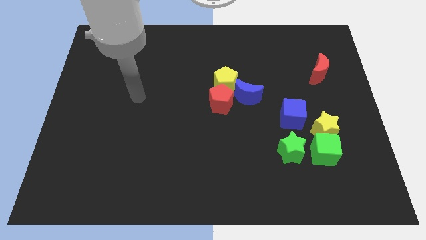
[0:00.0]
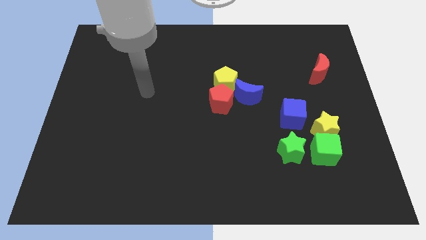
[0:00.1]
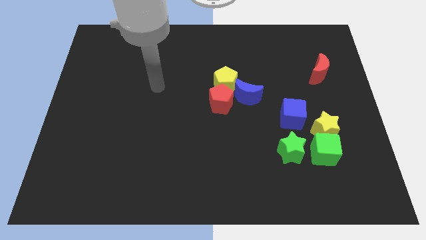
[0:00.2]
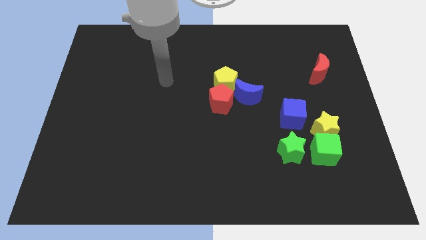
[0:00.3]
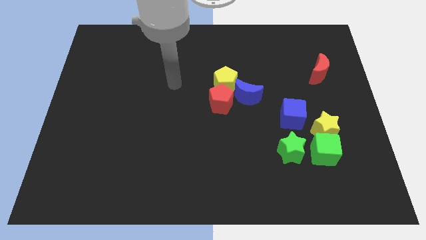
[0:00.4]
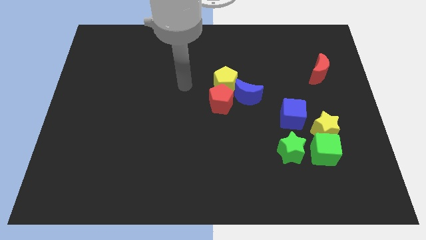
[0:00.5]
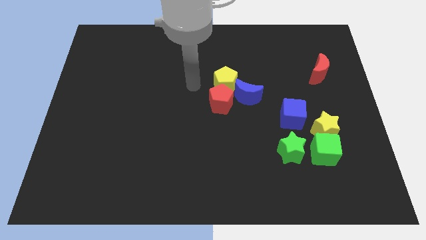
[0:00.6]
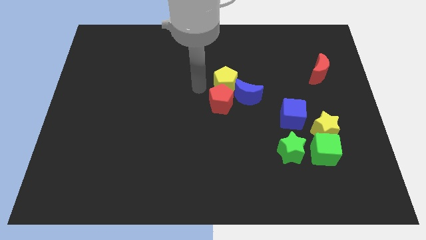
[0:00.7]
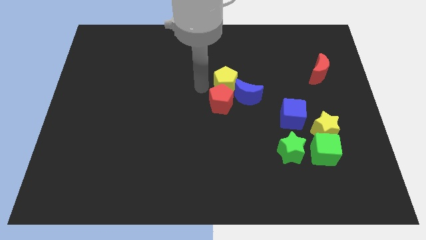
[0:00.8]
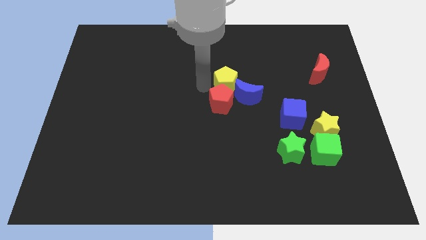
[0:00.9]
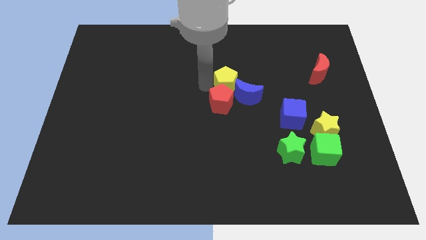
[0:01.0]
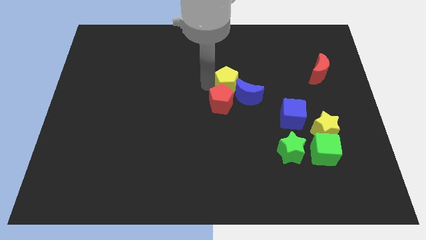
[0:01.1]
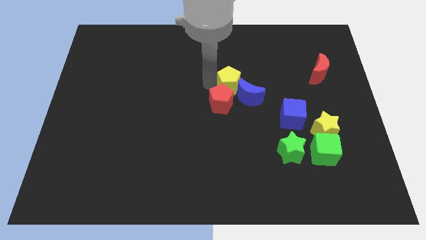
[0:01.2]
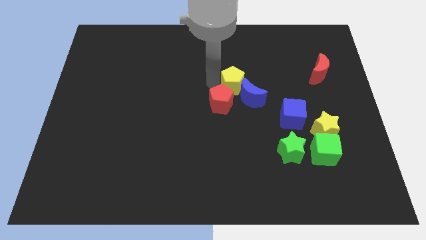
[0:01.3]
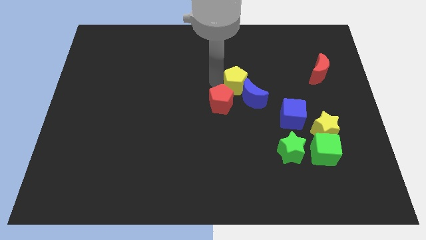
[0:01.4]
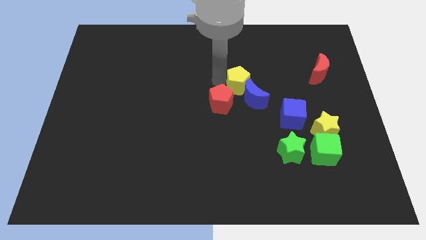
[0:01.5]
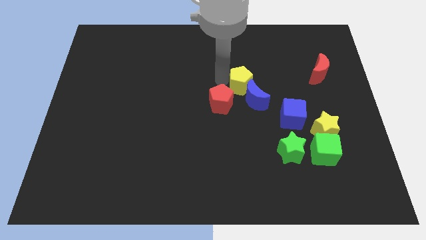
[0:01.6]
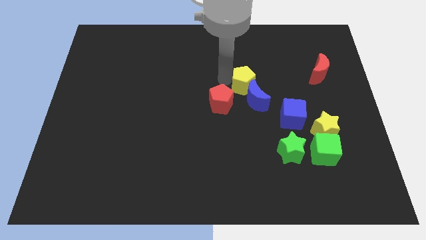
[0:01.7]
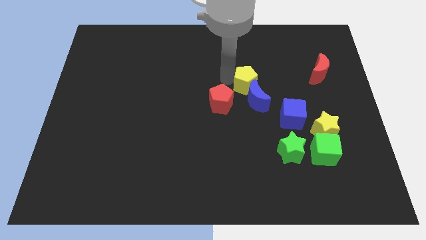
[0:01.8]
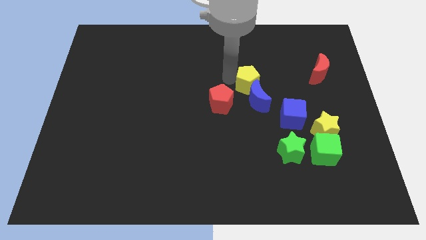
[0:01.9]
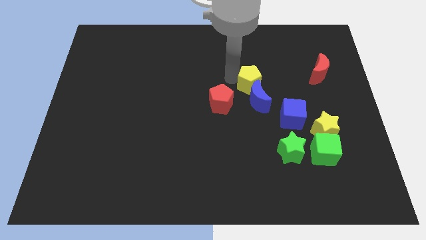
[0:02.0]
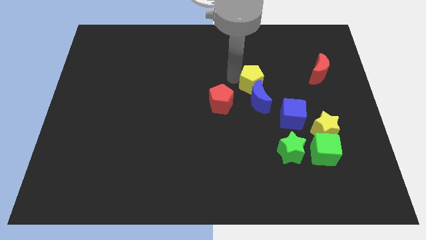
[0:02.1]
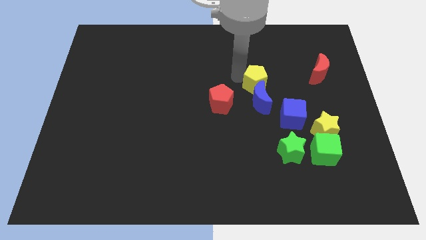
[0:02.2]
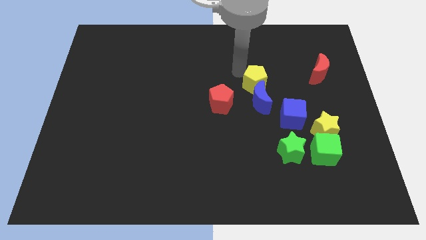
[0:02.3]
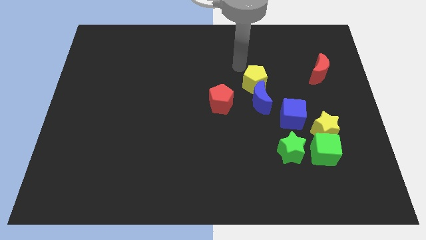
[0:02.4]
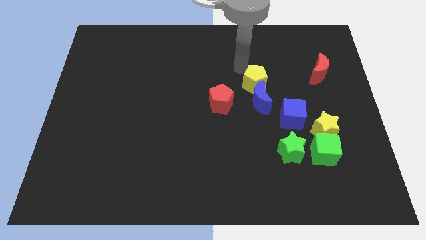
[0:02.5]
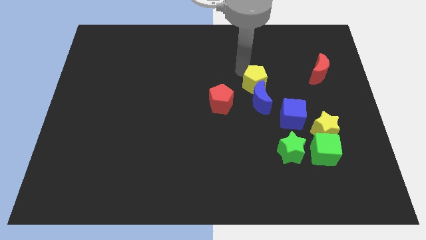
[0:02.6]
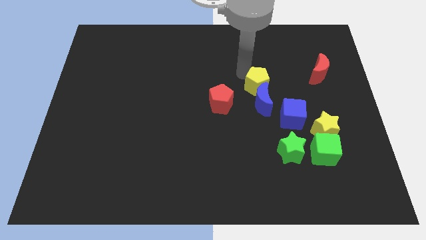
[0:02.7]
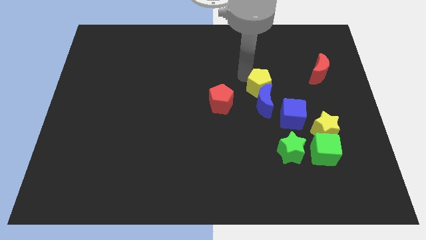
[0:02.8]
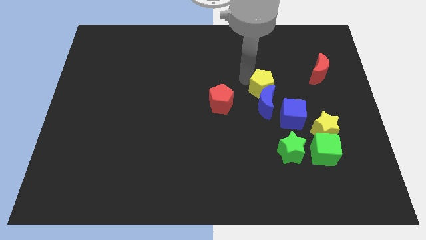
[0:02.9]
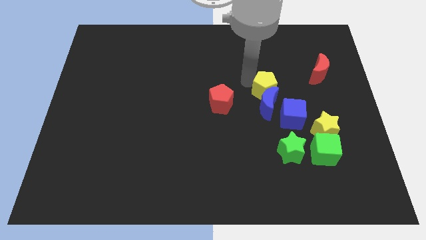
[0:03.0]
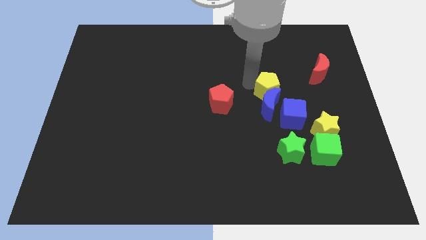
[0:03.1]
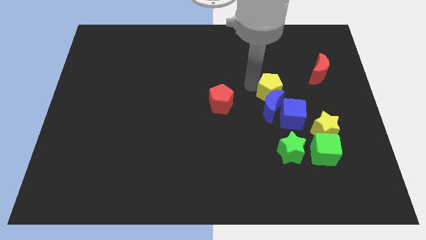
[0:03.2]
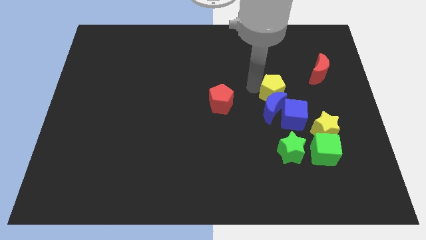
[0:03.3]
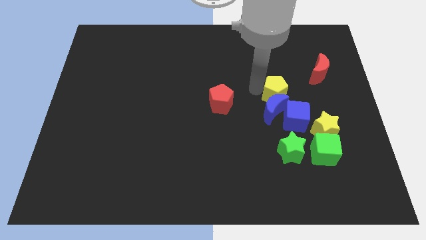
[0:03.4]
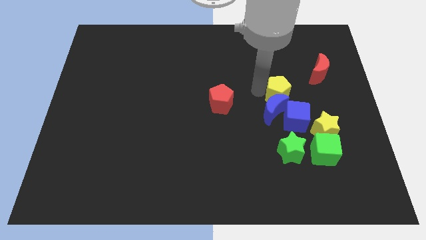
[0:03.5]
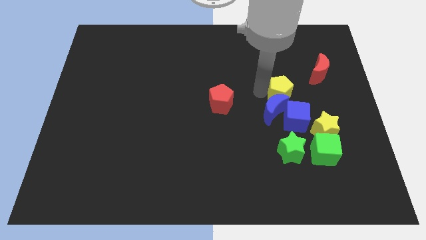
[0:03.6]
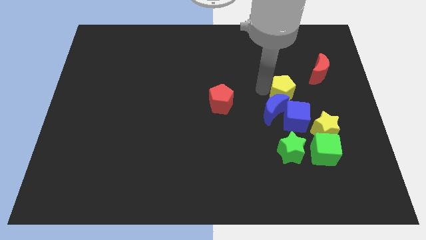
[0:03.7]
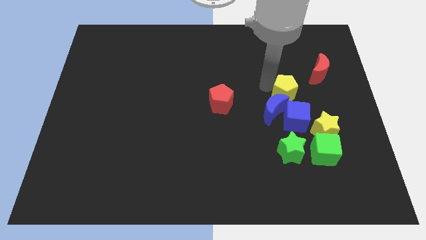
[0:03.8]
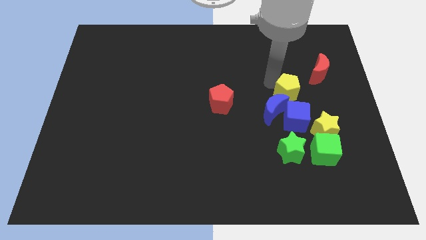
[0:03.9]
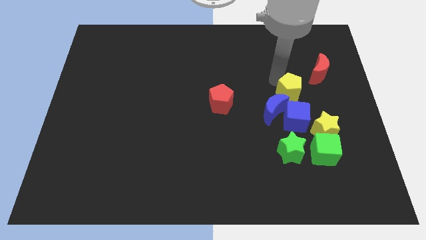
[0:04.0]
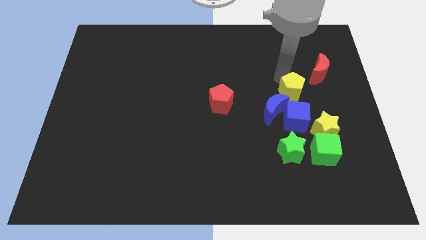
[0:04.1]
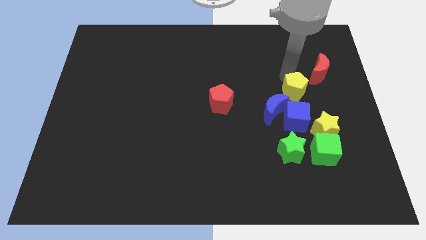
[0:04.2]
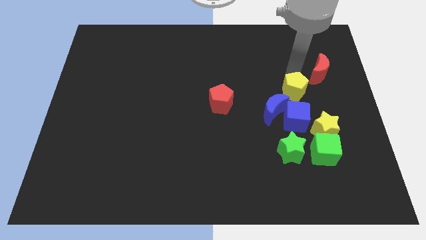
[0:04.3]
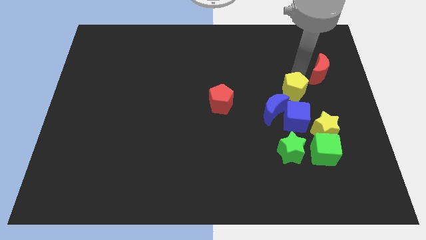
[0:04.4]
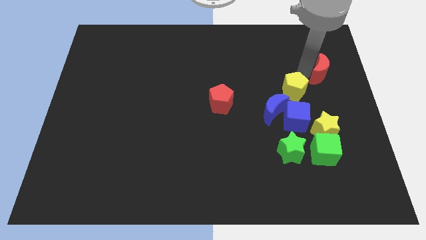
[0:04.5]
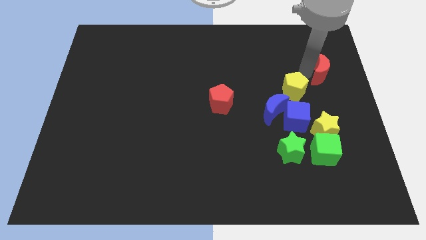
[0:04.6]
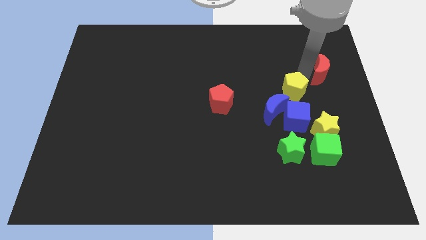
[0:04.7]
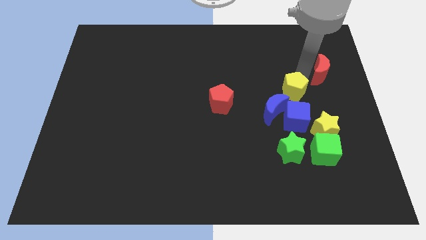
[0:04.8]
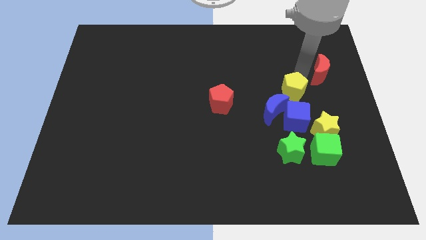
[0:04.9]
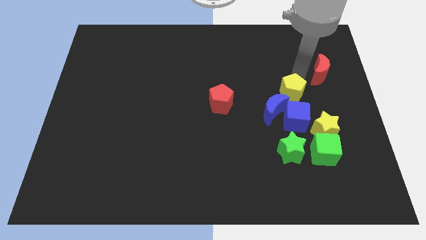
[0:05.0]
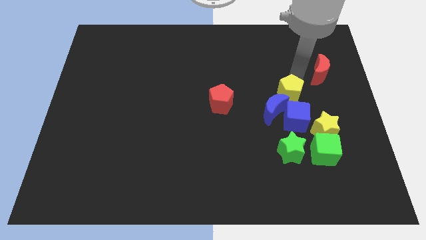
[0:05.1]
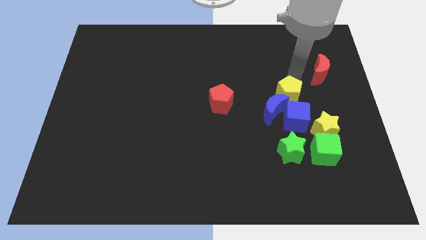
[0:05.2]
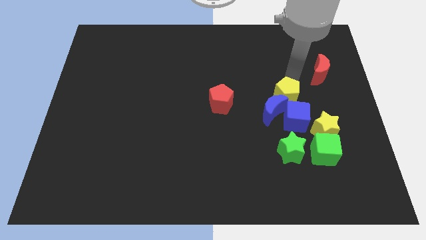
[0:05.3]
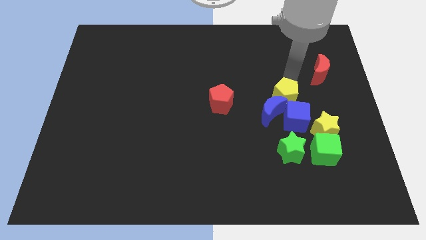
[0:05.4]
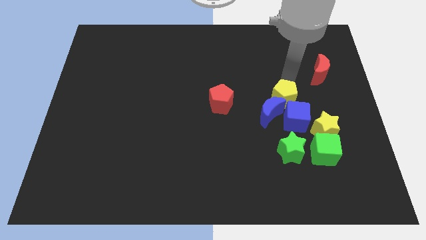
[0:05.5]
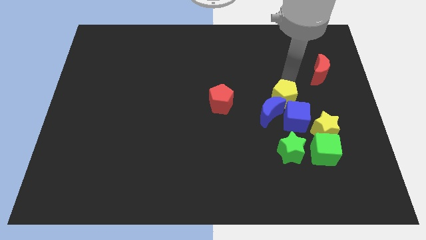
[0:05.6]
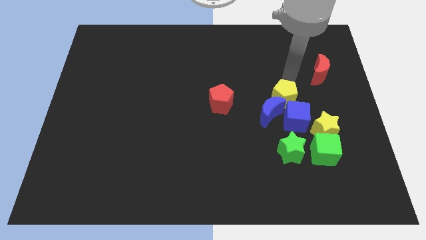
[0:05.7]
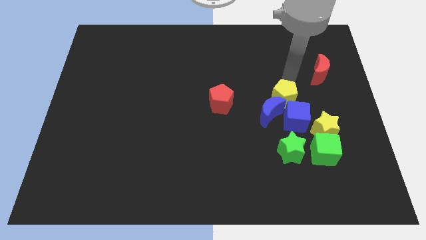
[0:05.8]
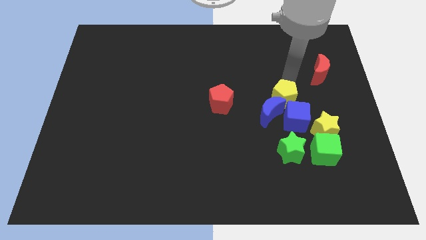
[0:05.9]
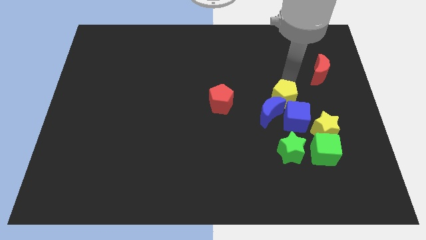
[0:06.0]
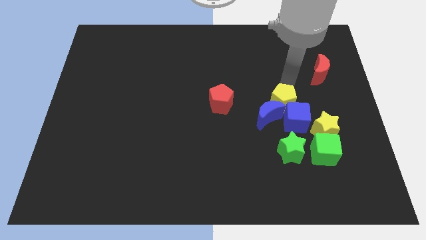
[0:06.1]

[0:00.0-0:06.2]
push the yellow pentagon to the blue cube

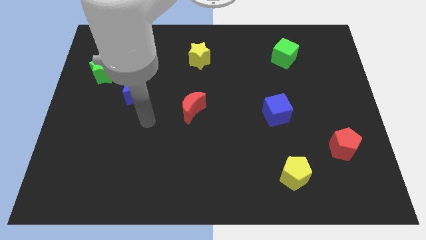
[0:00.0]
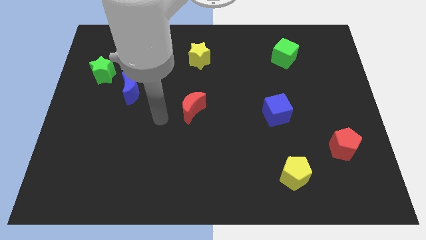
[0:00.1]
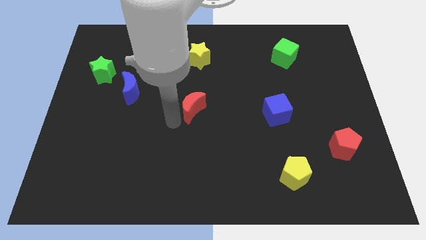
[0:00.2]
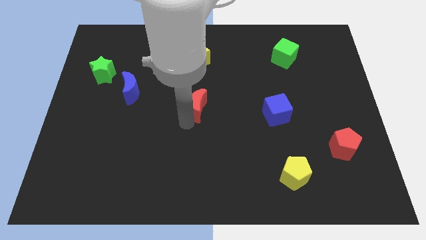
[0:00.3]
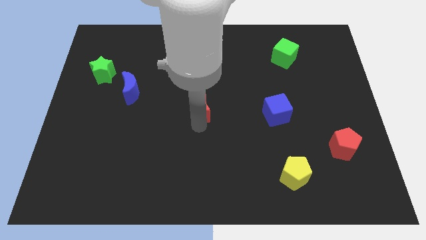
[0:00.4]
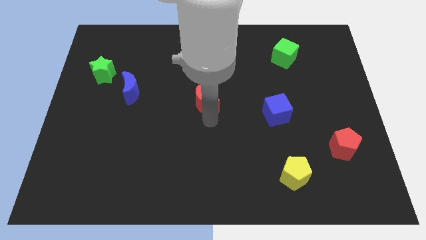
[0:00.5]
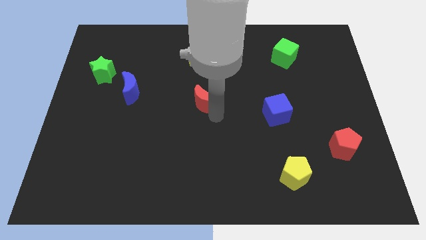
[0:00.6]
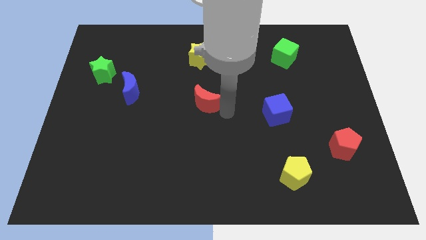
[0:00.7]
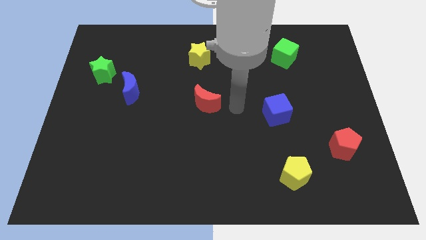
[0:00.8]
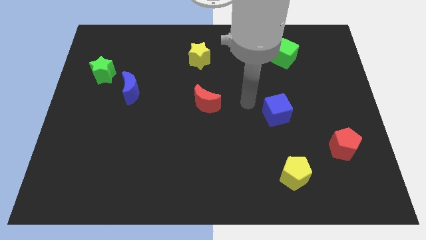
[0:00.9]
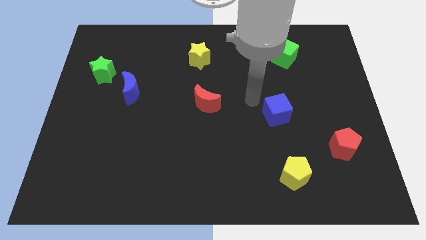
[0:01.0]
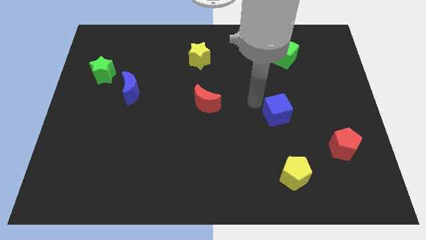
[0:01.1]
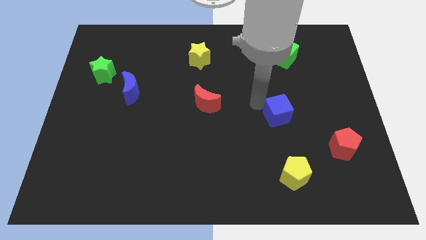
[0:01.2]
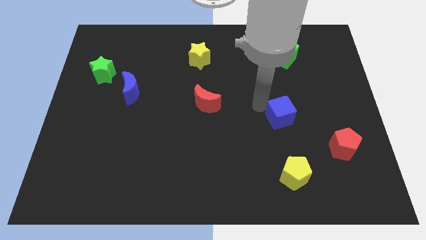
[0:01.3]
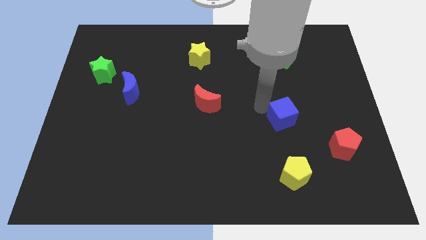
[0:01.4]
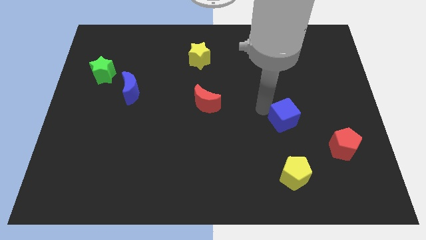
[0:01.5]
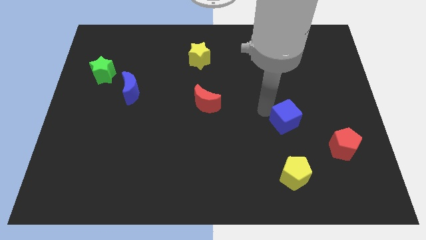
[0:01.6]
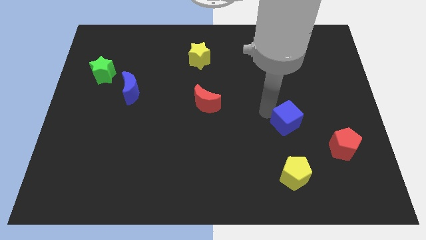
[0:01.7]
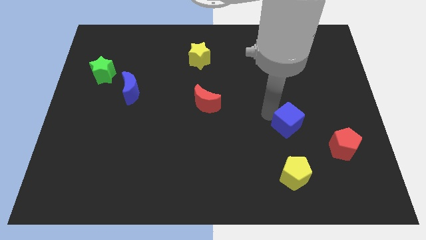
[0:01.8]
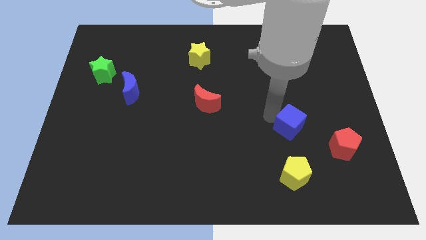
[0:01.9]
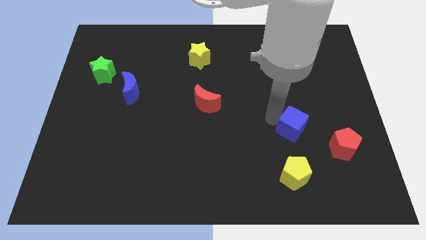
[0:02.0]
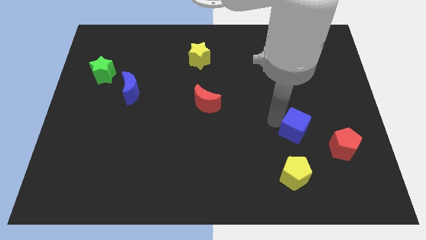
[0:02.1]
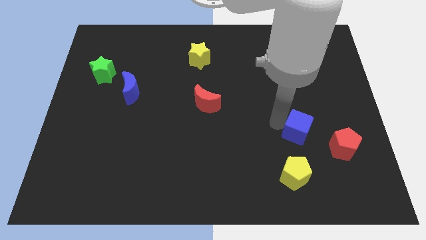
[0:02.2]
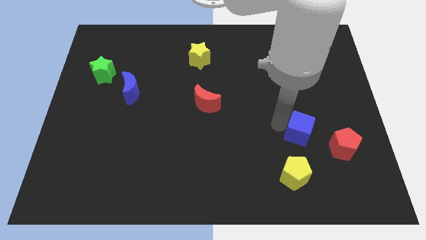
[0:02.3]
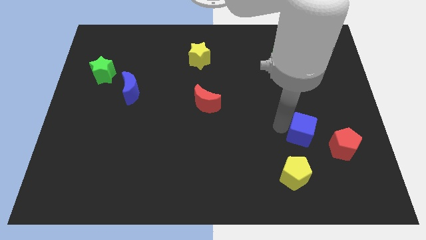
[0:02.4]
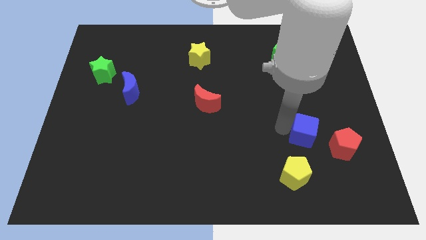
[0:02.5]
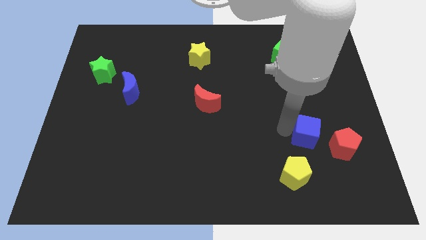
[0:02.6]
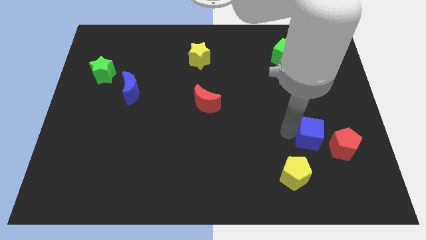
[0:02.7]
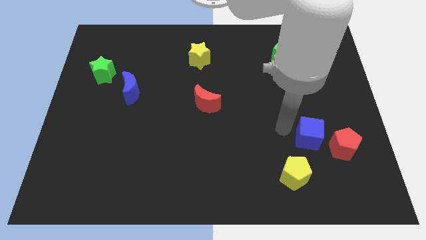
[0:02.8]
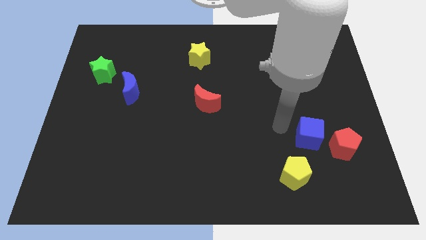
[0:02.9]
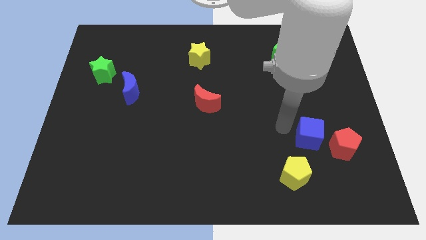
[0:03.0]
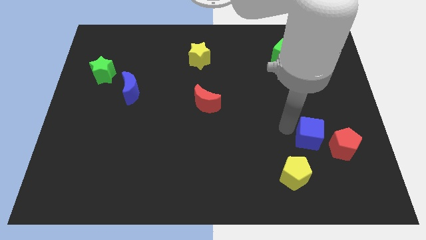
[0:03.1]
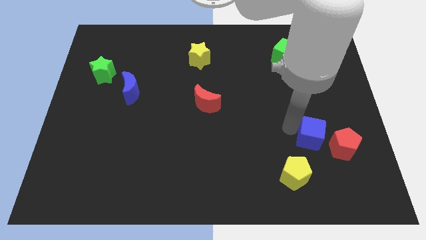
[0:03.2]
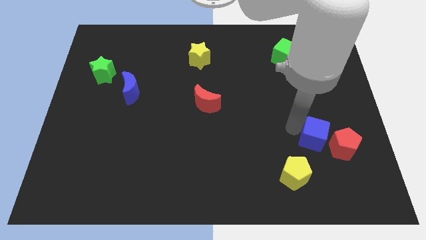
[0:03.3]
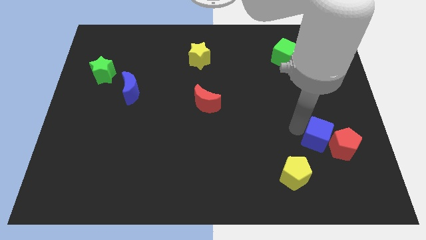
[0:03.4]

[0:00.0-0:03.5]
put the blue cube close to the red pentagon
